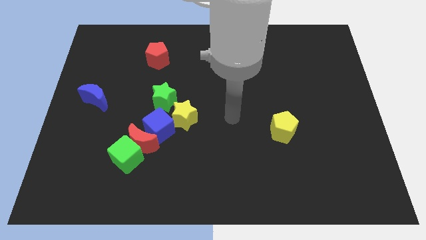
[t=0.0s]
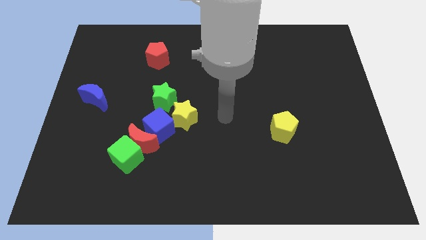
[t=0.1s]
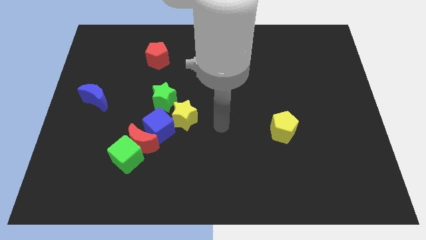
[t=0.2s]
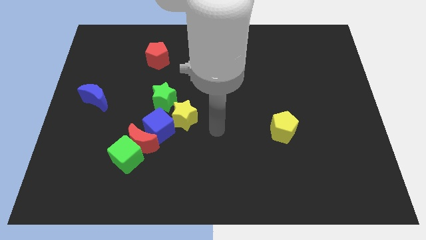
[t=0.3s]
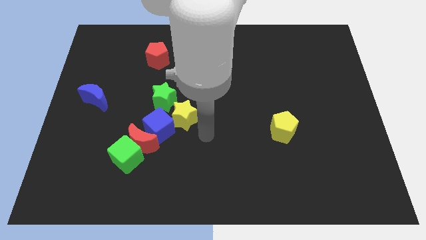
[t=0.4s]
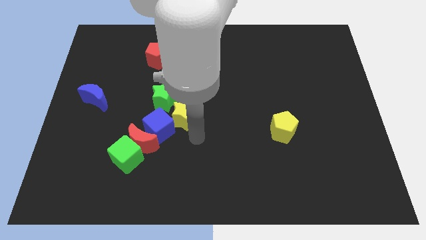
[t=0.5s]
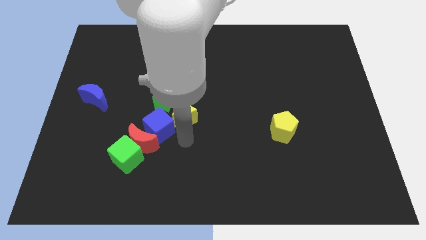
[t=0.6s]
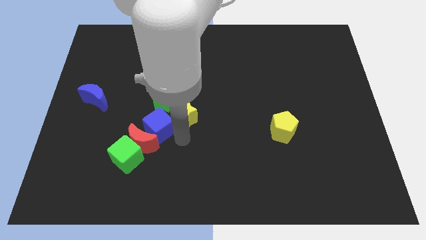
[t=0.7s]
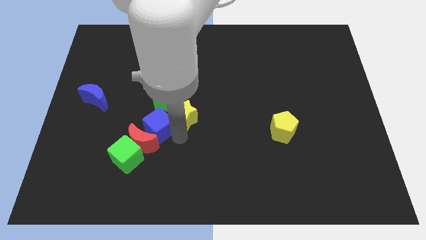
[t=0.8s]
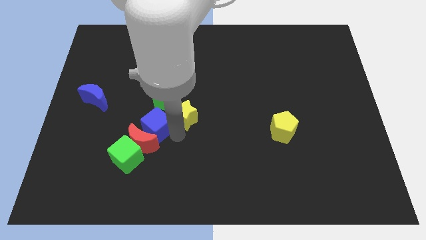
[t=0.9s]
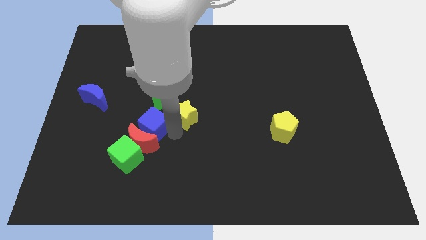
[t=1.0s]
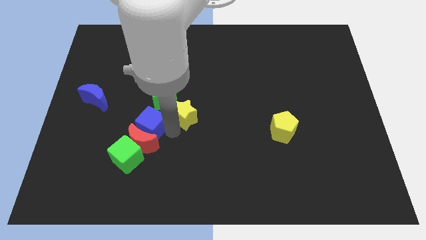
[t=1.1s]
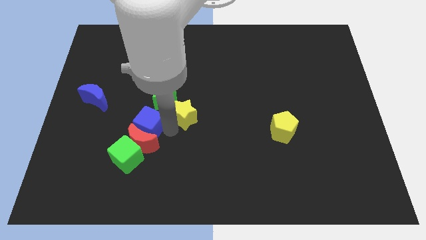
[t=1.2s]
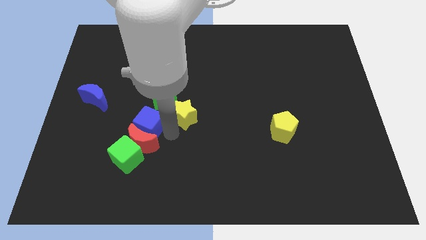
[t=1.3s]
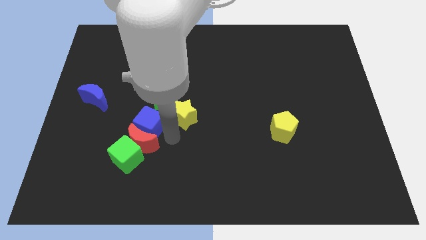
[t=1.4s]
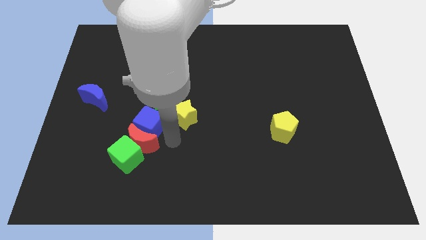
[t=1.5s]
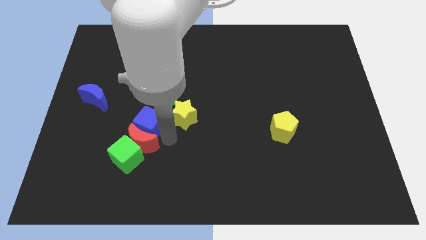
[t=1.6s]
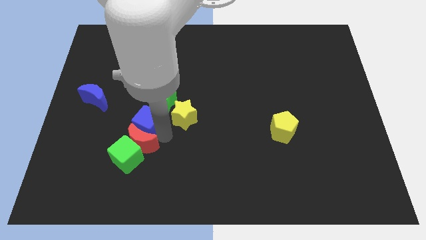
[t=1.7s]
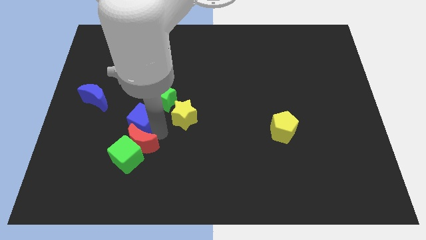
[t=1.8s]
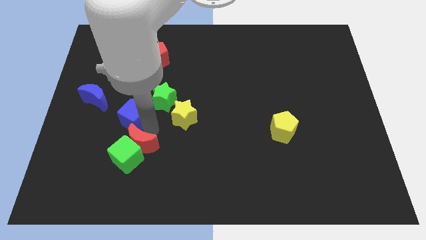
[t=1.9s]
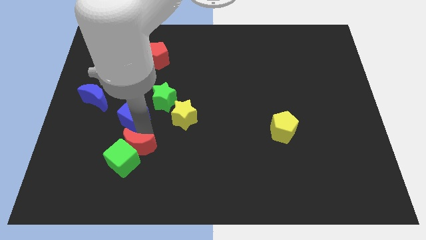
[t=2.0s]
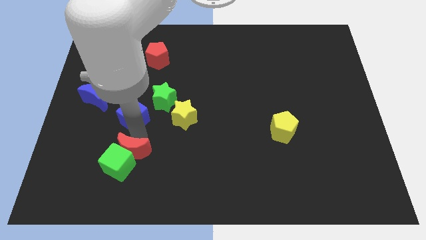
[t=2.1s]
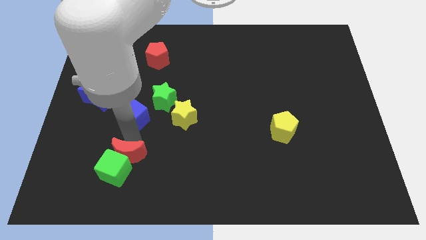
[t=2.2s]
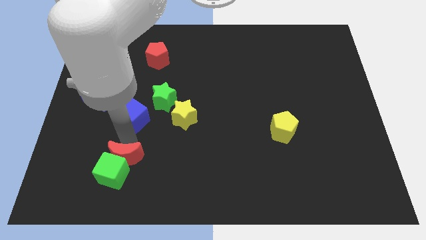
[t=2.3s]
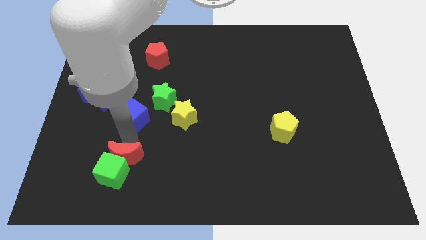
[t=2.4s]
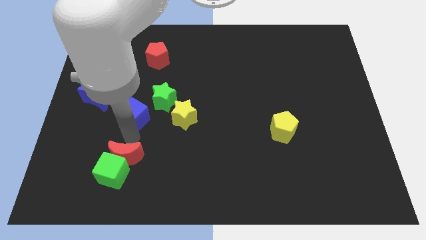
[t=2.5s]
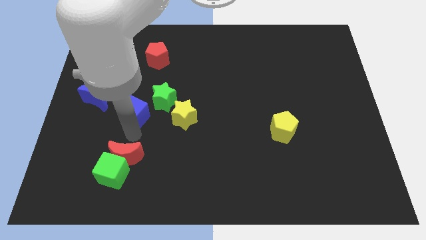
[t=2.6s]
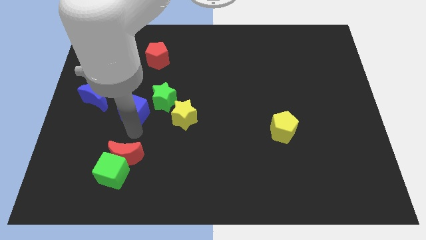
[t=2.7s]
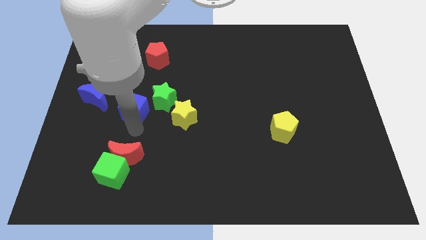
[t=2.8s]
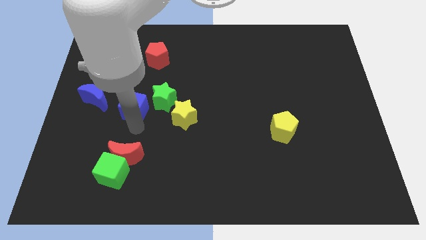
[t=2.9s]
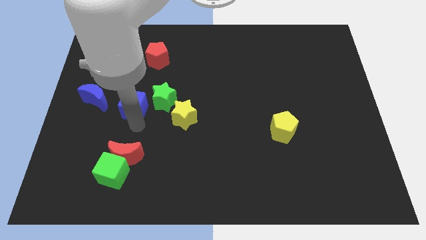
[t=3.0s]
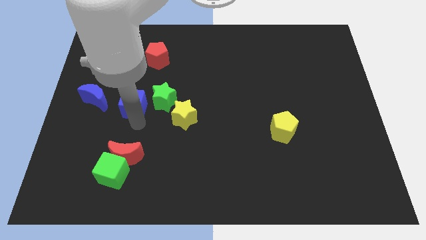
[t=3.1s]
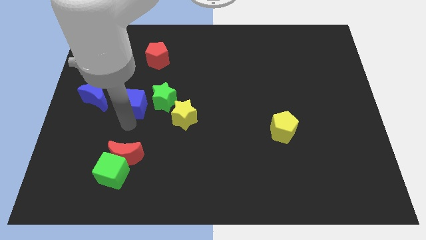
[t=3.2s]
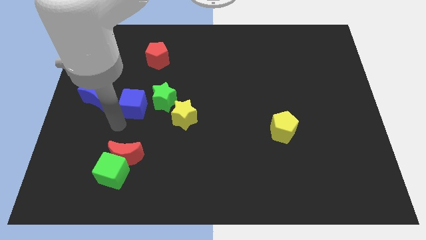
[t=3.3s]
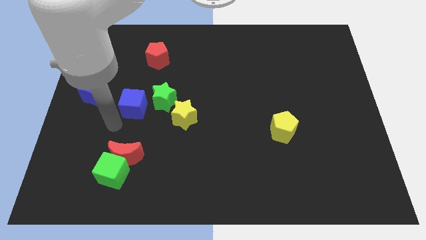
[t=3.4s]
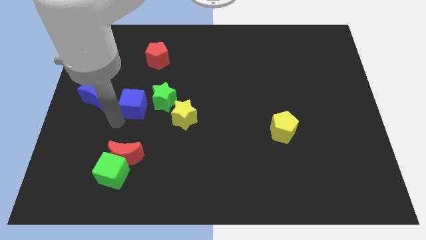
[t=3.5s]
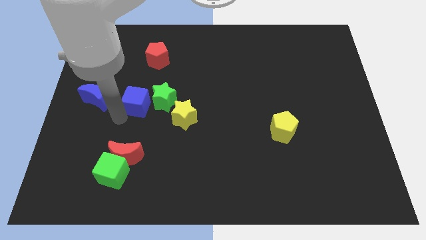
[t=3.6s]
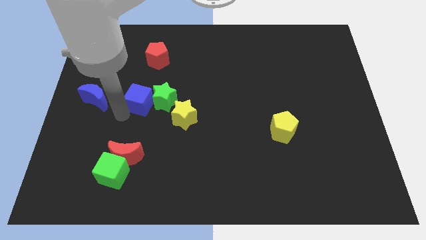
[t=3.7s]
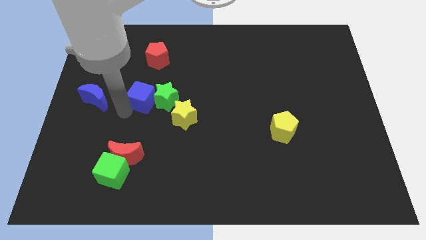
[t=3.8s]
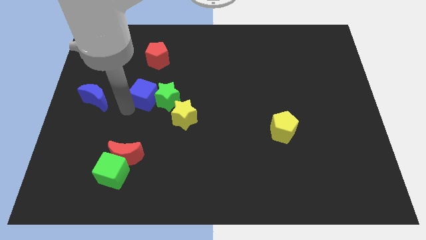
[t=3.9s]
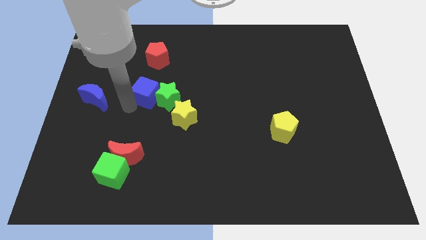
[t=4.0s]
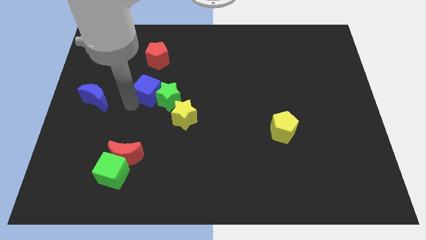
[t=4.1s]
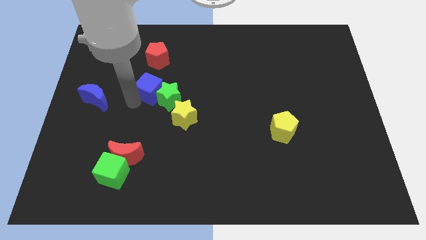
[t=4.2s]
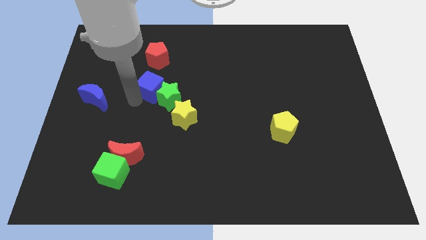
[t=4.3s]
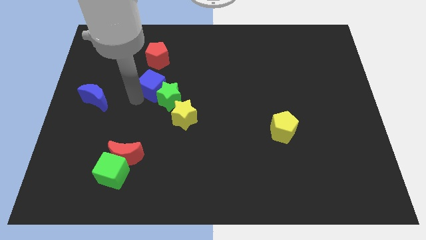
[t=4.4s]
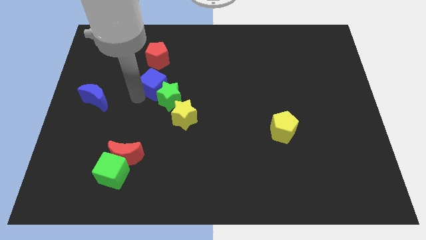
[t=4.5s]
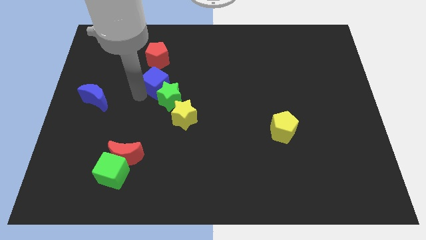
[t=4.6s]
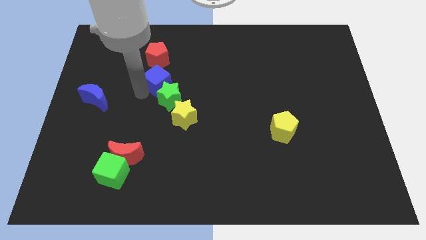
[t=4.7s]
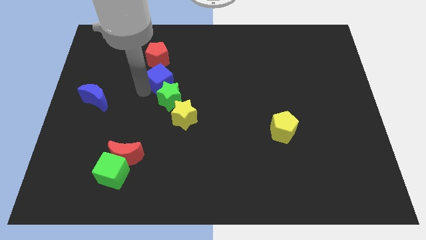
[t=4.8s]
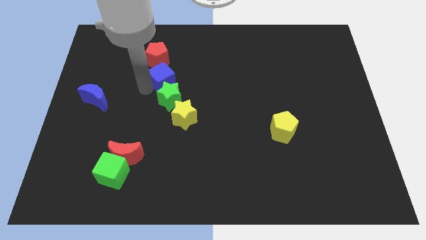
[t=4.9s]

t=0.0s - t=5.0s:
move the blue cube to the bottom right side of the red pentagon

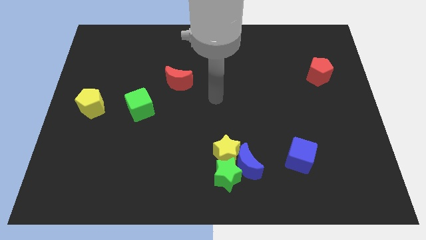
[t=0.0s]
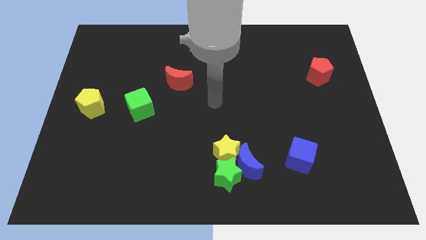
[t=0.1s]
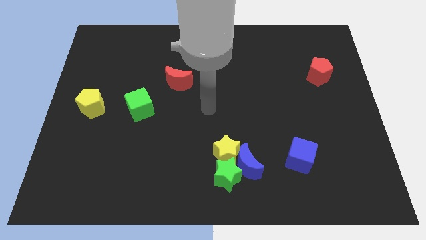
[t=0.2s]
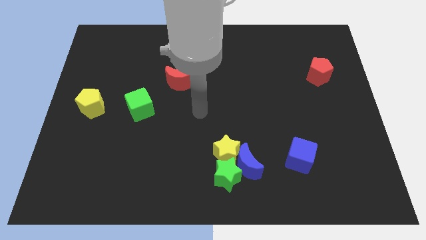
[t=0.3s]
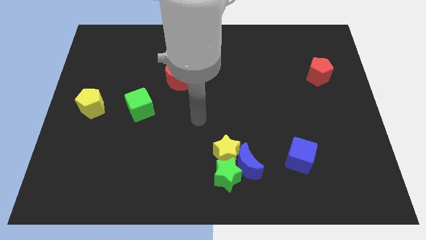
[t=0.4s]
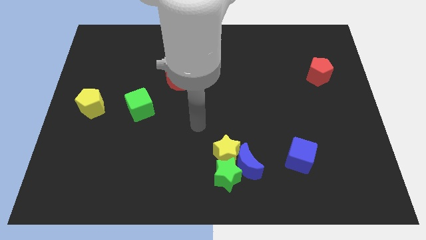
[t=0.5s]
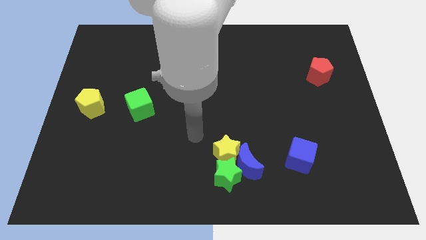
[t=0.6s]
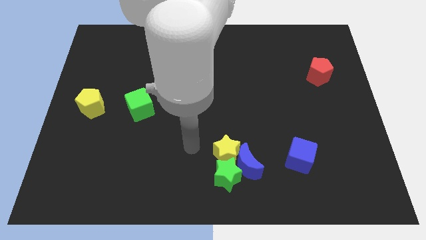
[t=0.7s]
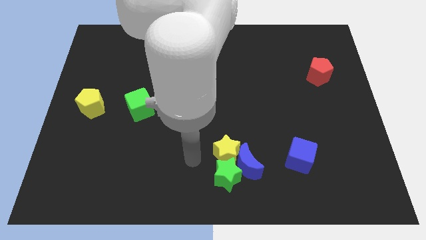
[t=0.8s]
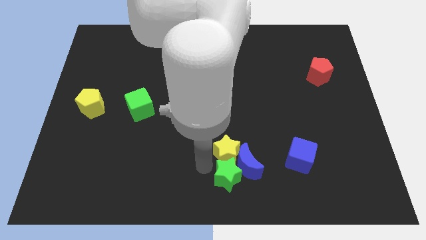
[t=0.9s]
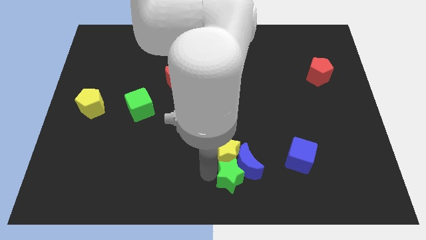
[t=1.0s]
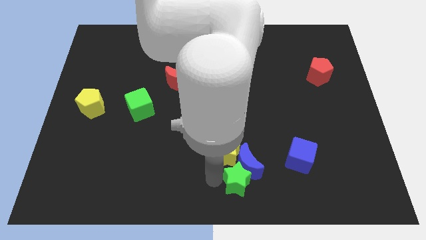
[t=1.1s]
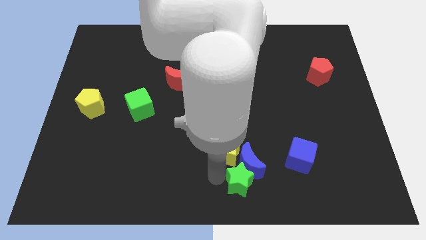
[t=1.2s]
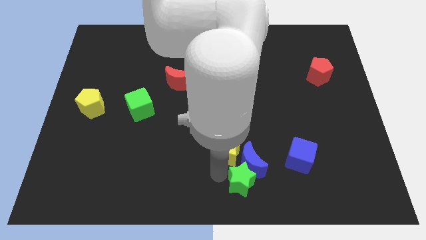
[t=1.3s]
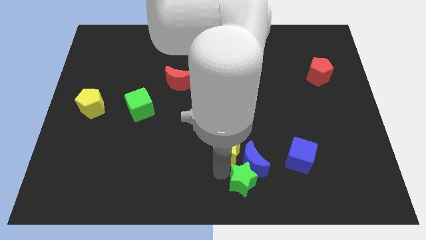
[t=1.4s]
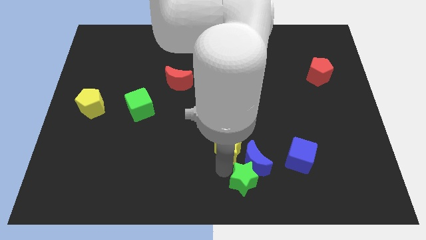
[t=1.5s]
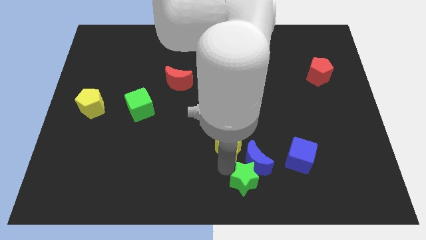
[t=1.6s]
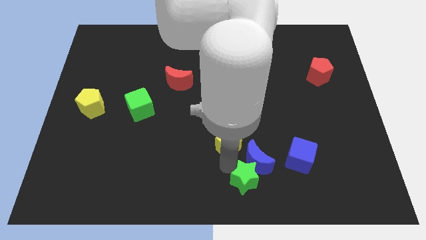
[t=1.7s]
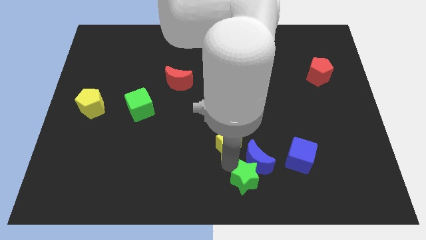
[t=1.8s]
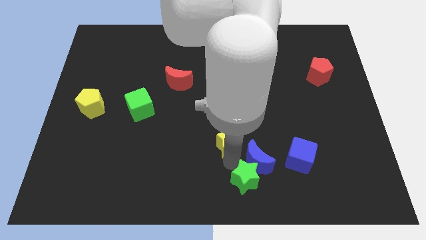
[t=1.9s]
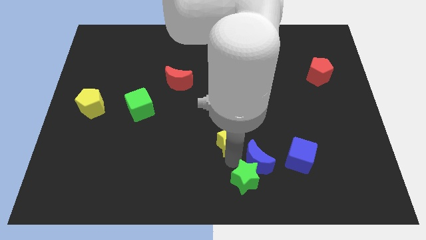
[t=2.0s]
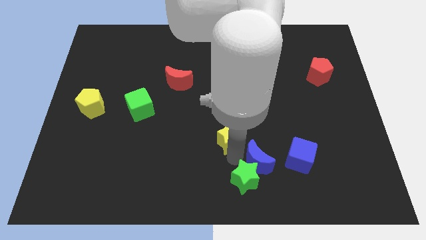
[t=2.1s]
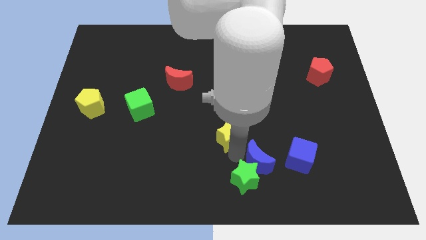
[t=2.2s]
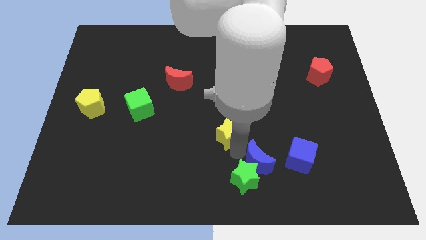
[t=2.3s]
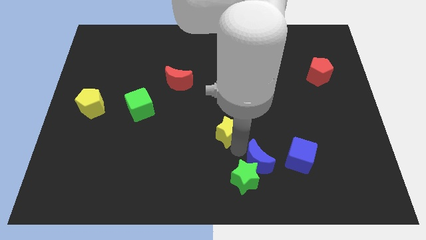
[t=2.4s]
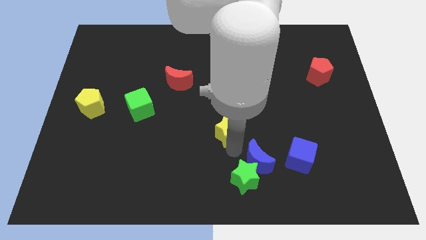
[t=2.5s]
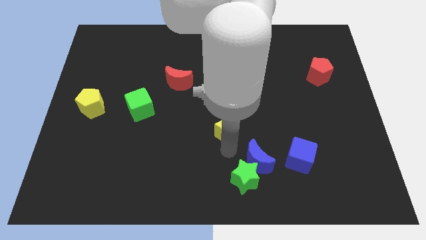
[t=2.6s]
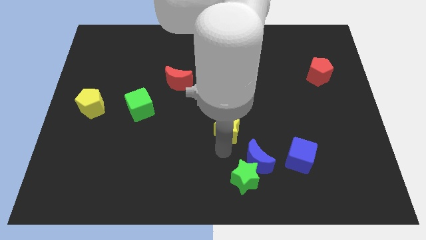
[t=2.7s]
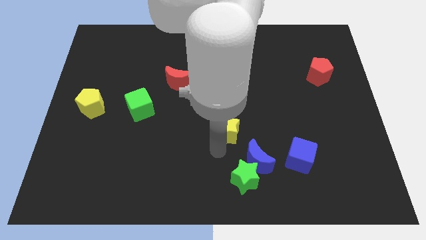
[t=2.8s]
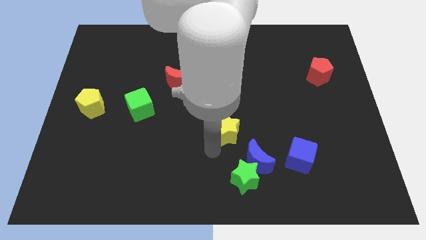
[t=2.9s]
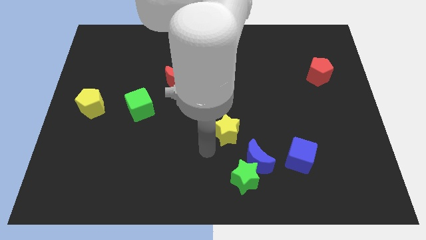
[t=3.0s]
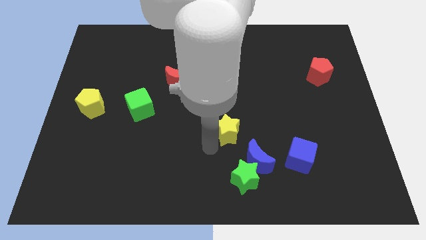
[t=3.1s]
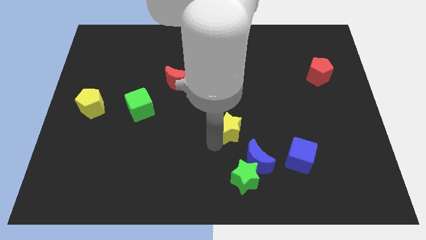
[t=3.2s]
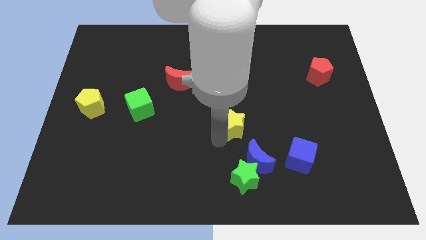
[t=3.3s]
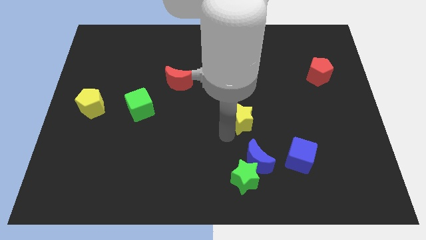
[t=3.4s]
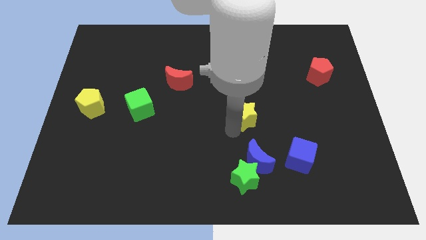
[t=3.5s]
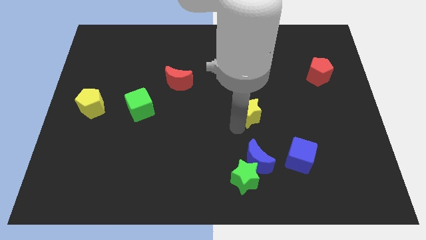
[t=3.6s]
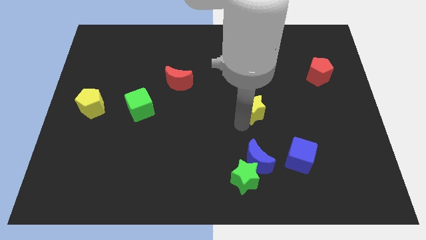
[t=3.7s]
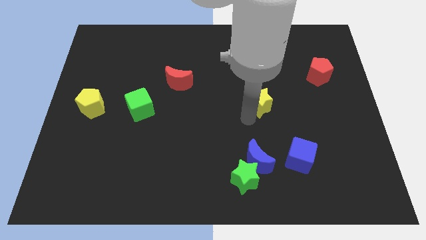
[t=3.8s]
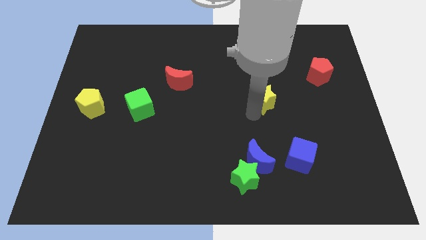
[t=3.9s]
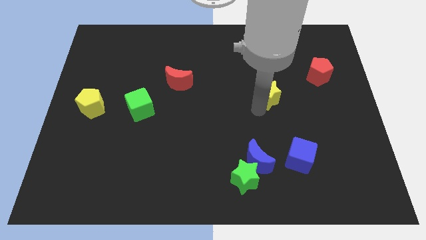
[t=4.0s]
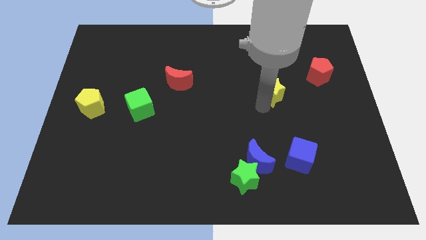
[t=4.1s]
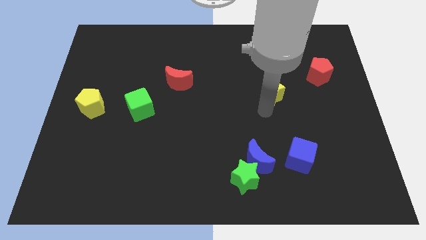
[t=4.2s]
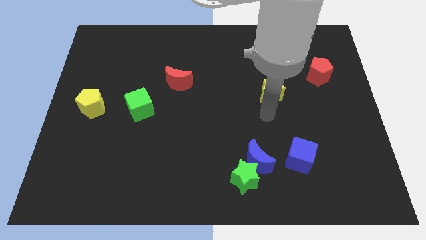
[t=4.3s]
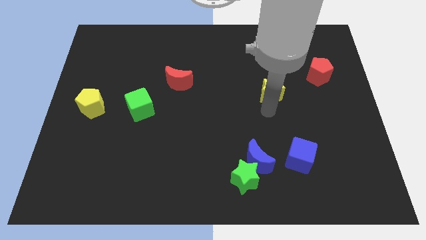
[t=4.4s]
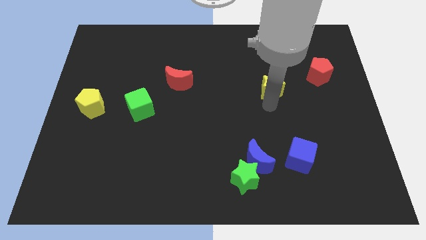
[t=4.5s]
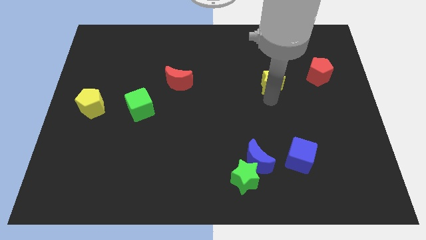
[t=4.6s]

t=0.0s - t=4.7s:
push the yellow star just left of the red pentagon
